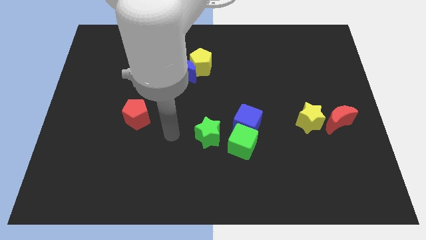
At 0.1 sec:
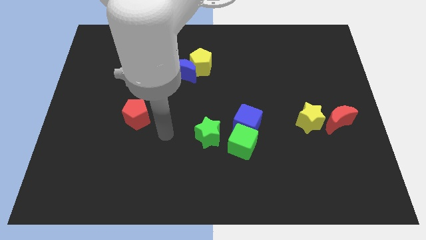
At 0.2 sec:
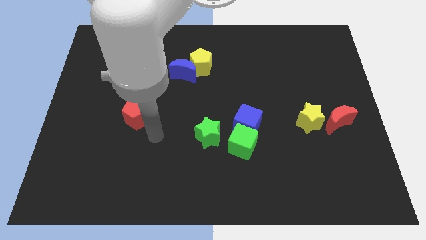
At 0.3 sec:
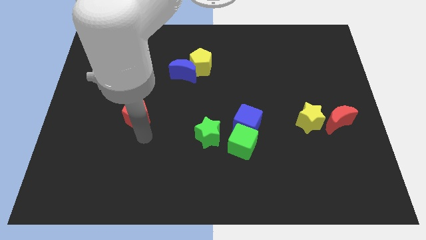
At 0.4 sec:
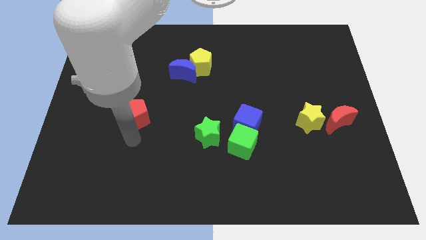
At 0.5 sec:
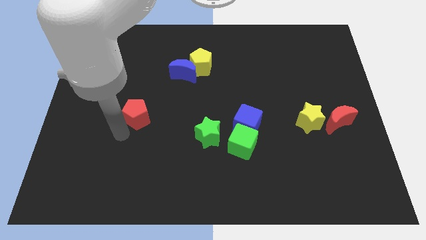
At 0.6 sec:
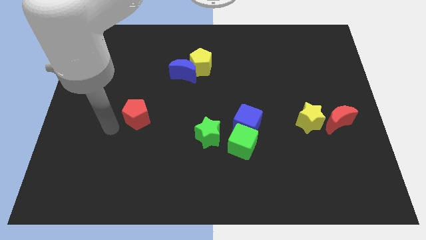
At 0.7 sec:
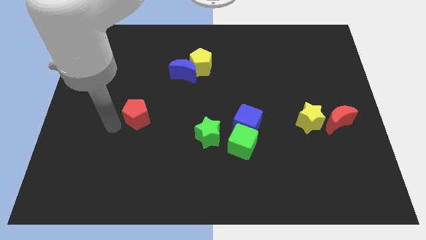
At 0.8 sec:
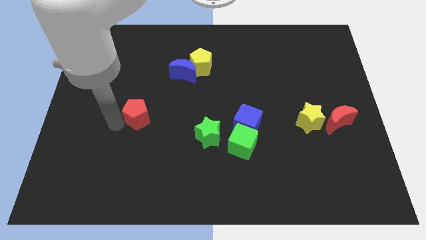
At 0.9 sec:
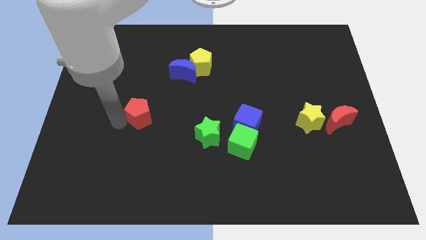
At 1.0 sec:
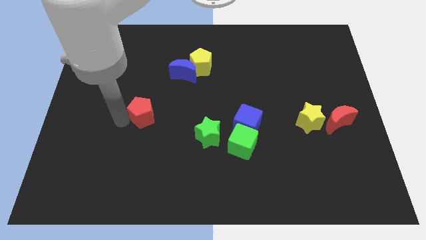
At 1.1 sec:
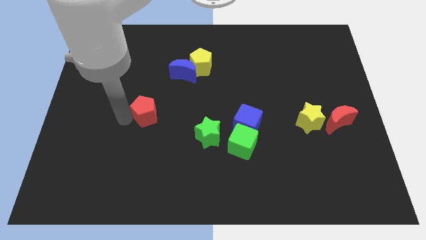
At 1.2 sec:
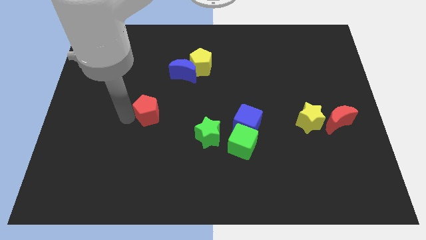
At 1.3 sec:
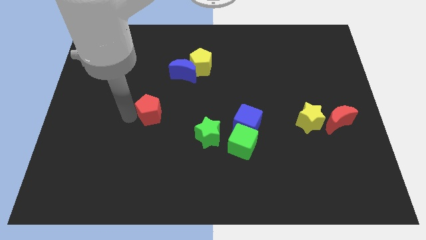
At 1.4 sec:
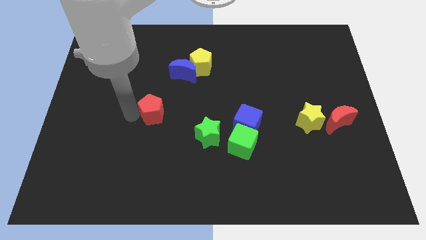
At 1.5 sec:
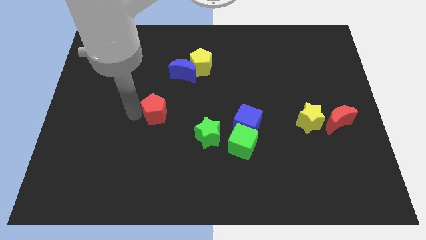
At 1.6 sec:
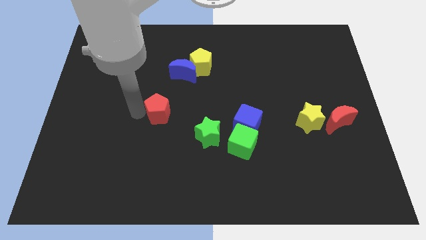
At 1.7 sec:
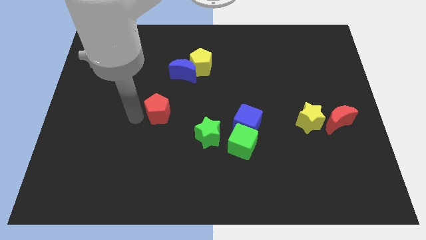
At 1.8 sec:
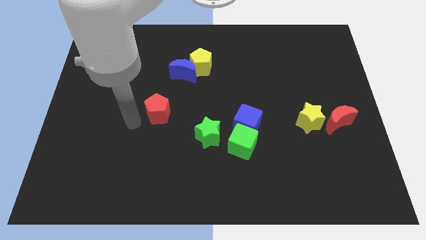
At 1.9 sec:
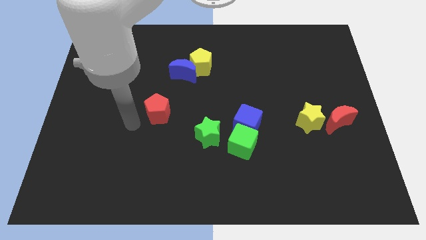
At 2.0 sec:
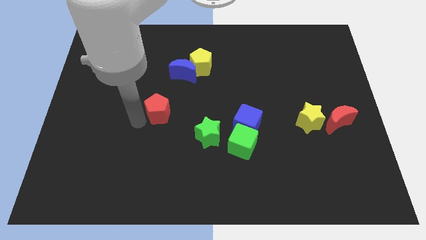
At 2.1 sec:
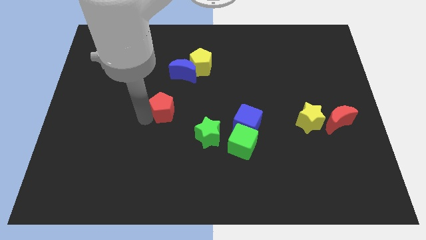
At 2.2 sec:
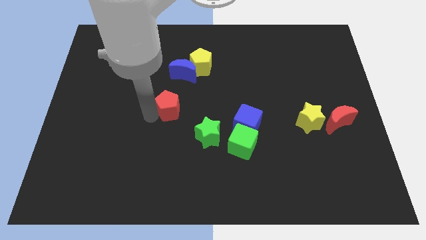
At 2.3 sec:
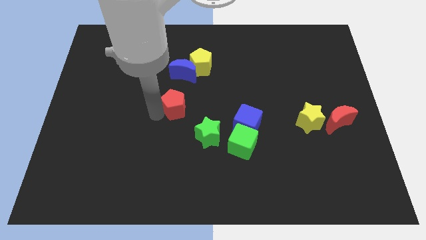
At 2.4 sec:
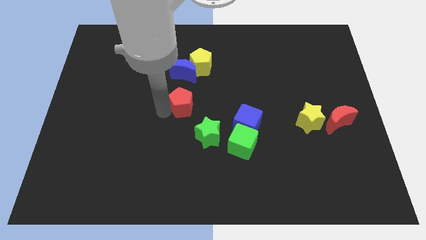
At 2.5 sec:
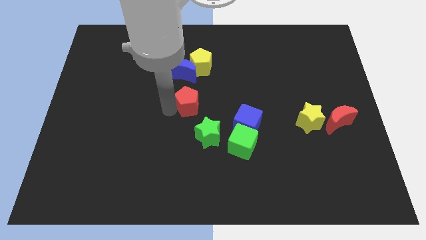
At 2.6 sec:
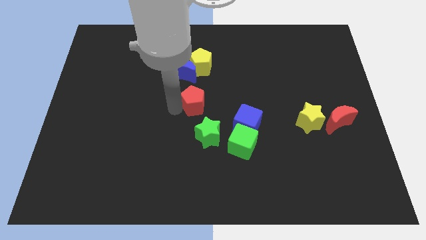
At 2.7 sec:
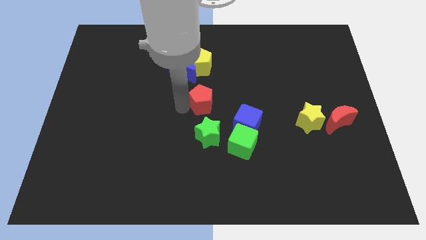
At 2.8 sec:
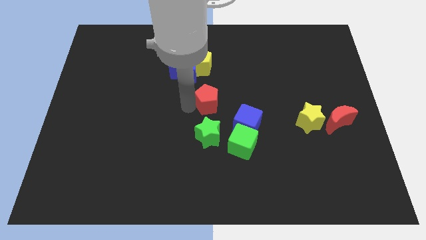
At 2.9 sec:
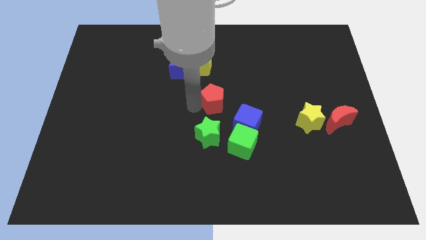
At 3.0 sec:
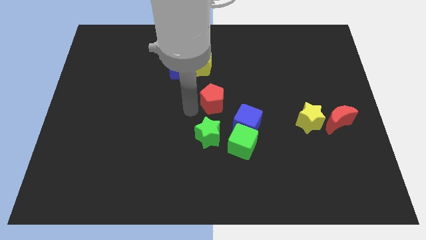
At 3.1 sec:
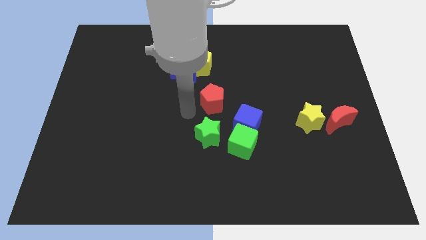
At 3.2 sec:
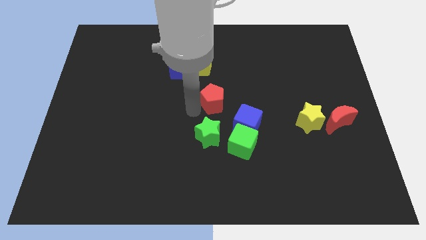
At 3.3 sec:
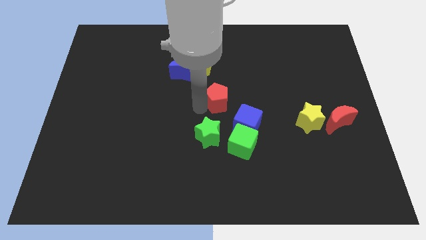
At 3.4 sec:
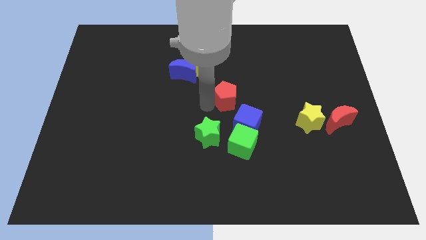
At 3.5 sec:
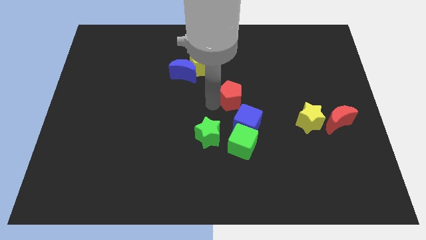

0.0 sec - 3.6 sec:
push the red pentagon right

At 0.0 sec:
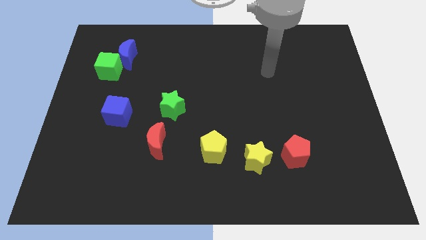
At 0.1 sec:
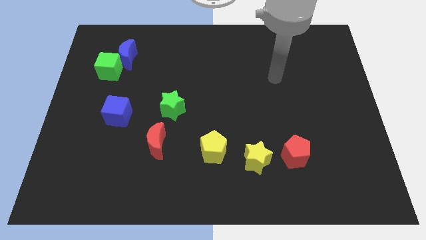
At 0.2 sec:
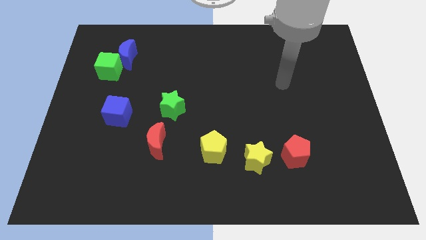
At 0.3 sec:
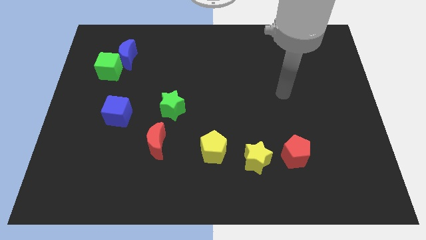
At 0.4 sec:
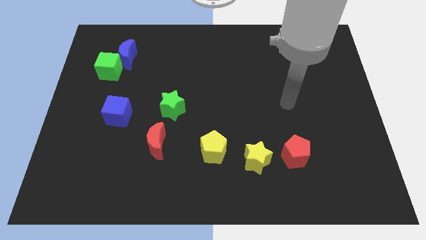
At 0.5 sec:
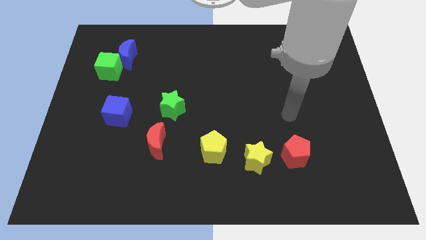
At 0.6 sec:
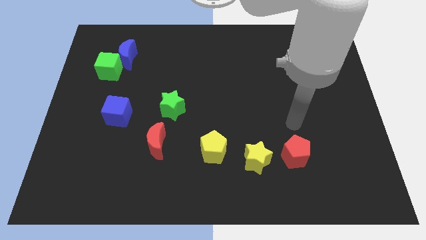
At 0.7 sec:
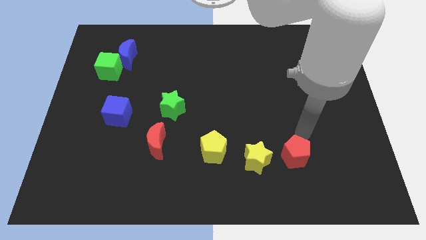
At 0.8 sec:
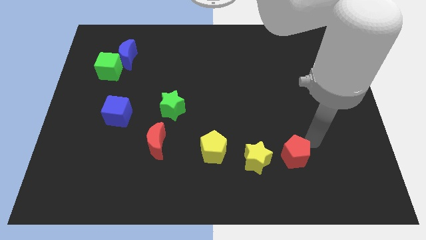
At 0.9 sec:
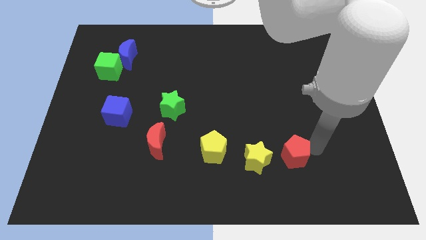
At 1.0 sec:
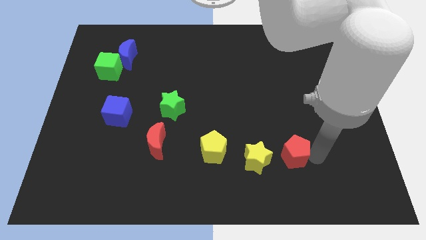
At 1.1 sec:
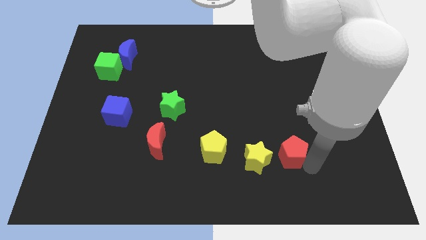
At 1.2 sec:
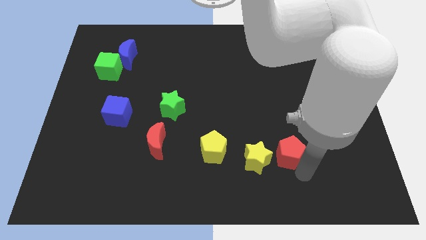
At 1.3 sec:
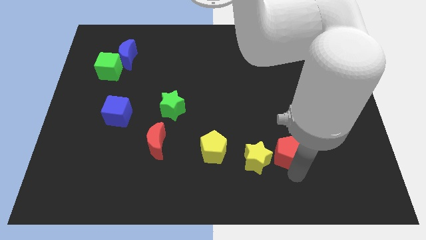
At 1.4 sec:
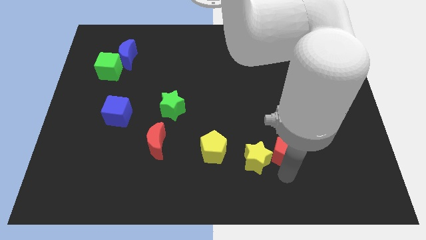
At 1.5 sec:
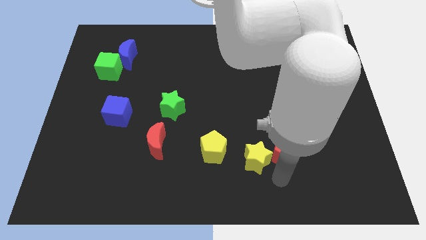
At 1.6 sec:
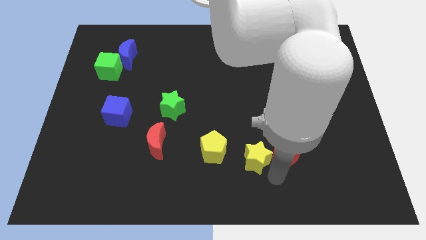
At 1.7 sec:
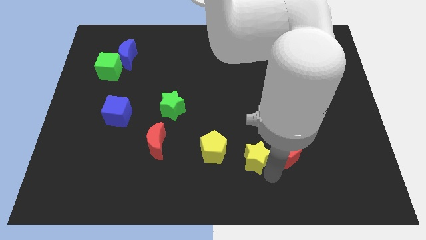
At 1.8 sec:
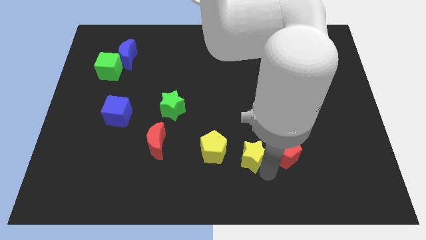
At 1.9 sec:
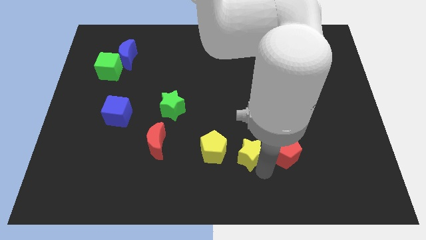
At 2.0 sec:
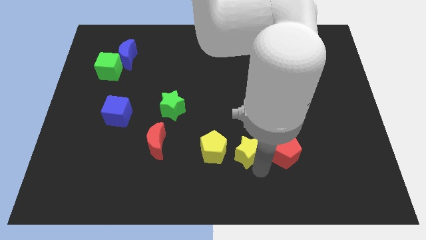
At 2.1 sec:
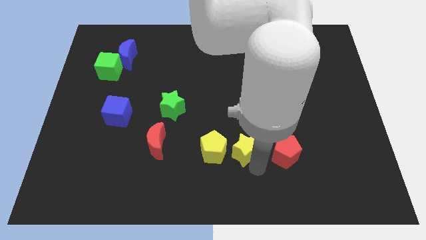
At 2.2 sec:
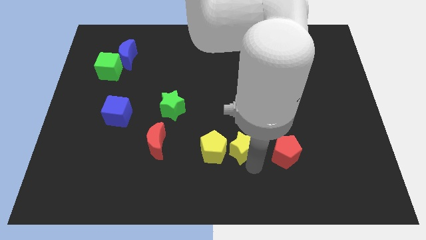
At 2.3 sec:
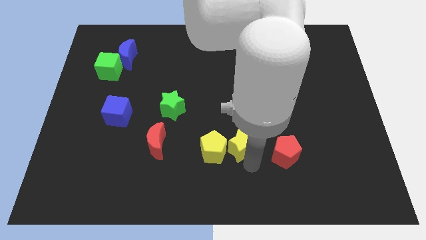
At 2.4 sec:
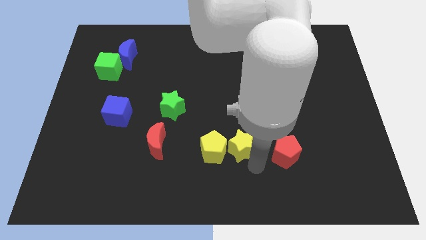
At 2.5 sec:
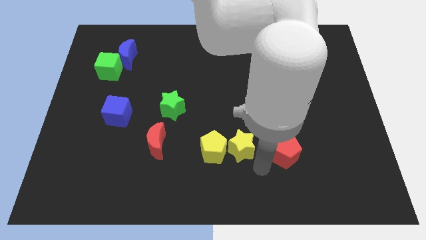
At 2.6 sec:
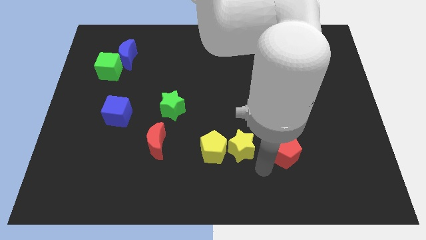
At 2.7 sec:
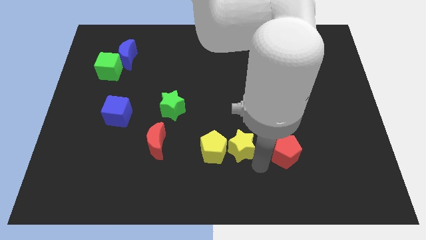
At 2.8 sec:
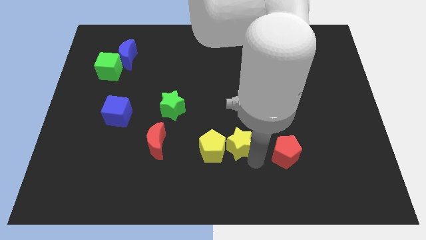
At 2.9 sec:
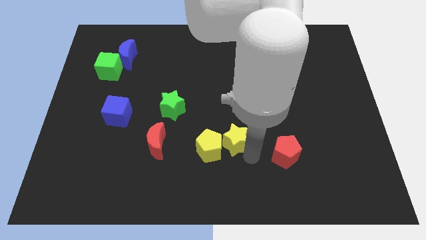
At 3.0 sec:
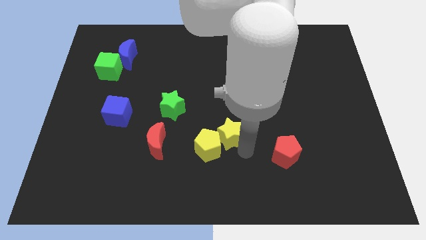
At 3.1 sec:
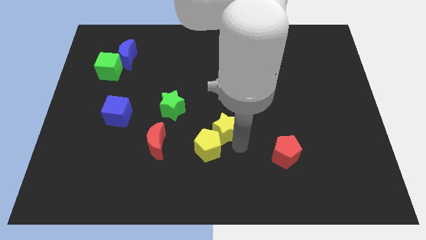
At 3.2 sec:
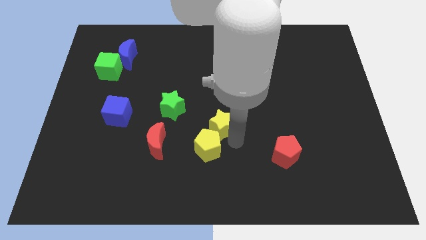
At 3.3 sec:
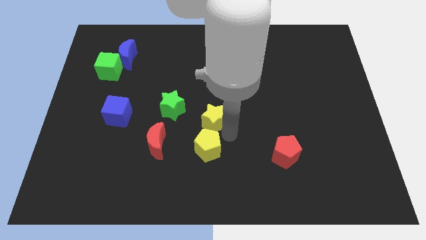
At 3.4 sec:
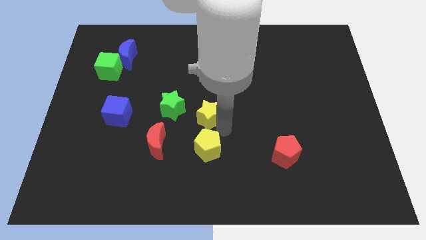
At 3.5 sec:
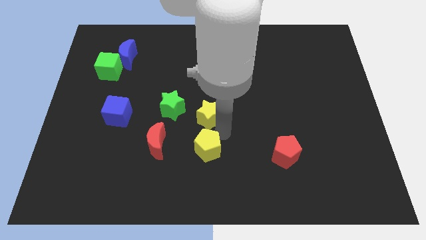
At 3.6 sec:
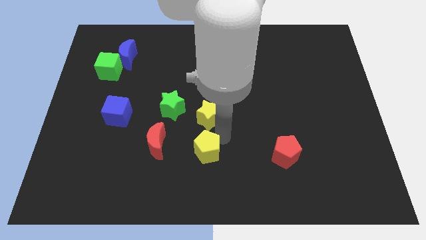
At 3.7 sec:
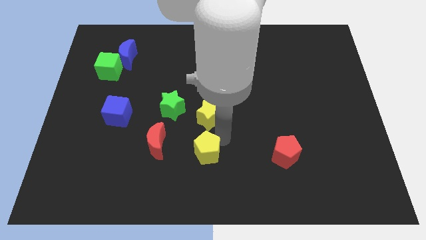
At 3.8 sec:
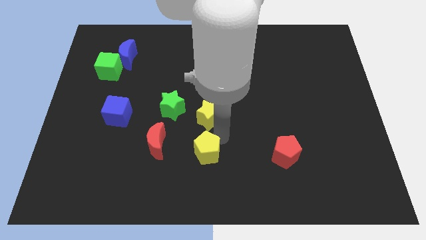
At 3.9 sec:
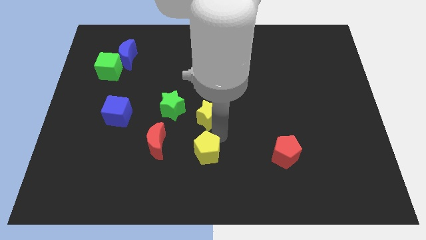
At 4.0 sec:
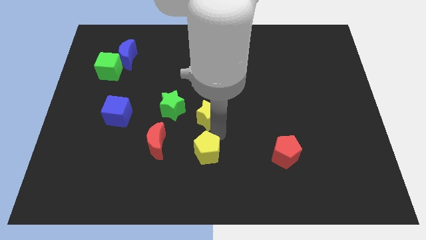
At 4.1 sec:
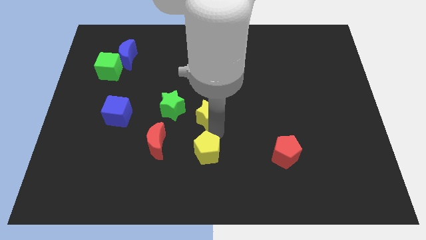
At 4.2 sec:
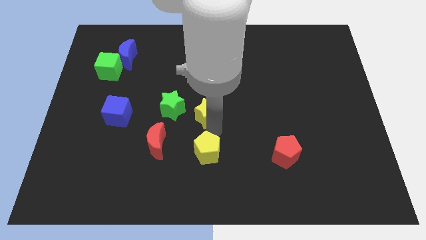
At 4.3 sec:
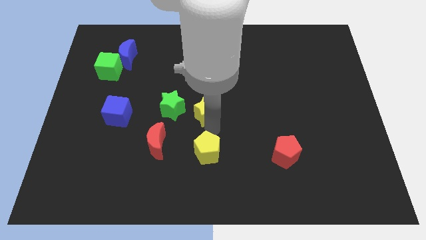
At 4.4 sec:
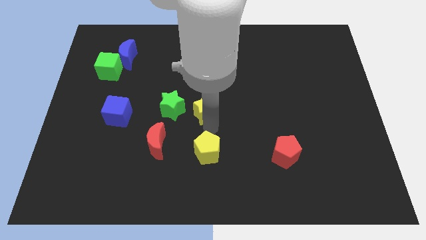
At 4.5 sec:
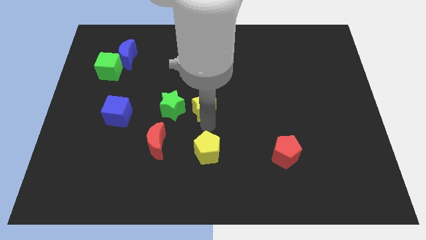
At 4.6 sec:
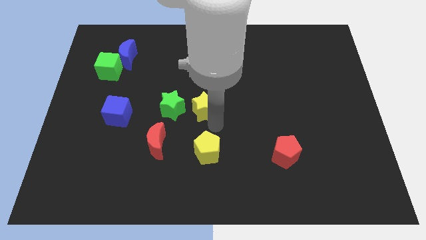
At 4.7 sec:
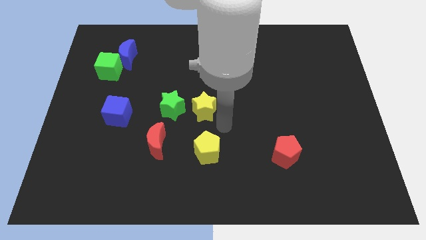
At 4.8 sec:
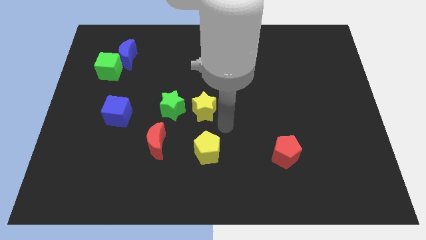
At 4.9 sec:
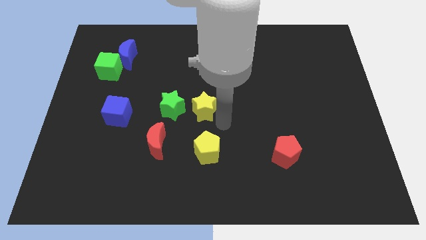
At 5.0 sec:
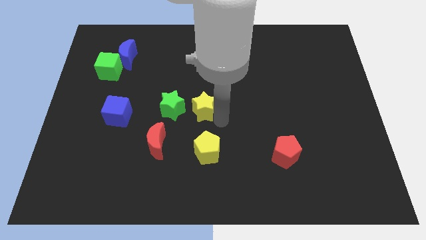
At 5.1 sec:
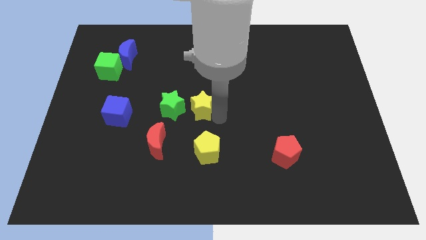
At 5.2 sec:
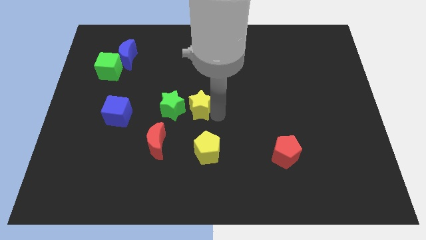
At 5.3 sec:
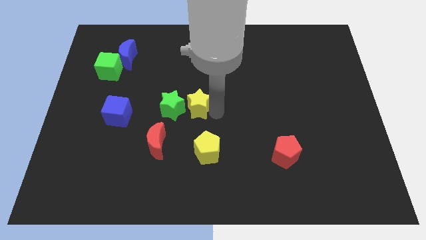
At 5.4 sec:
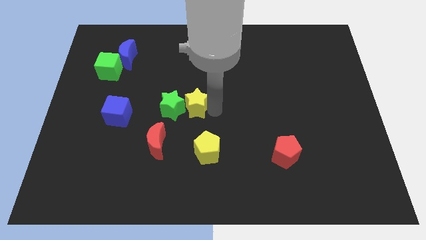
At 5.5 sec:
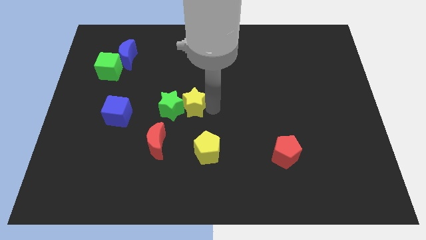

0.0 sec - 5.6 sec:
push the yellow star upwards and then to the left
